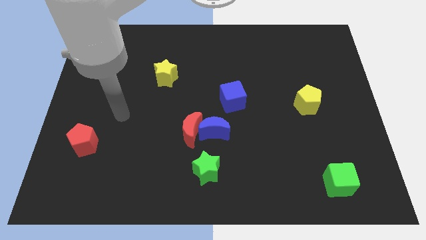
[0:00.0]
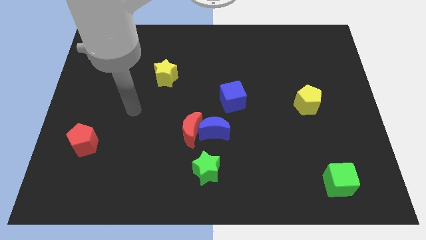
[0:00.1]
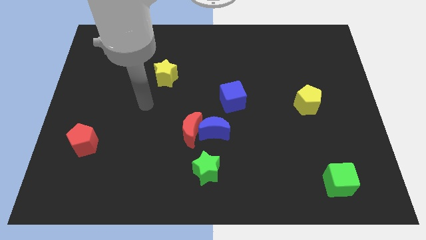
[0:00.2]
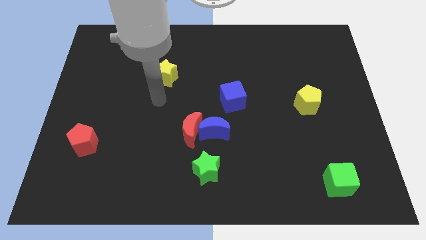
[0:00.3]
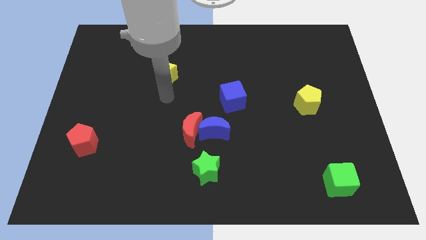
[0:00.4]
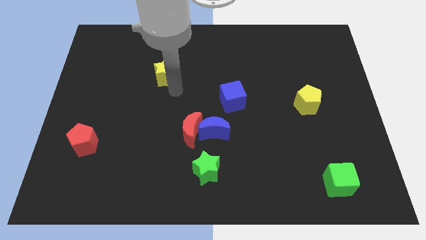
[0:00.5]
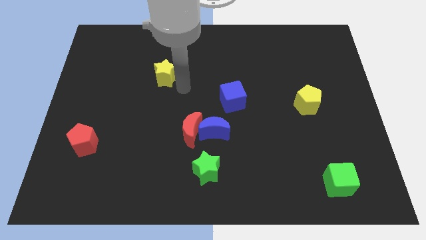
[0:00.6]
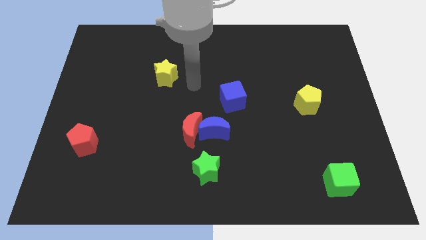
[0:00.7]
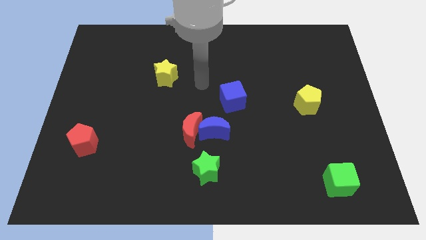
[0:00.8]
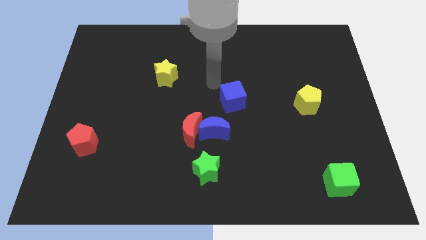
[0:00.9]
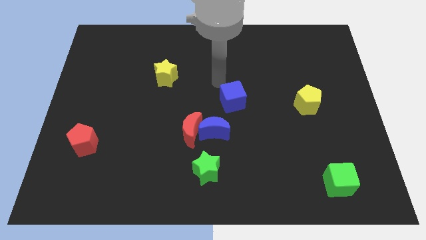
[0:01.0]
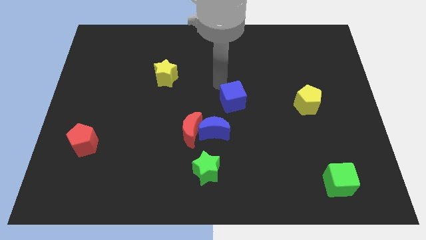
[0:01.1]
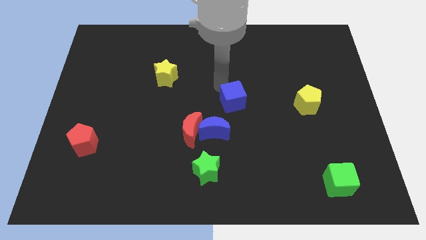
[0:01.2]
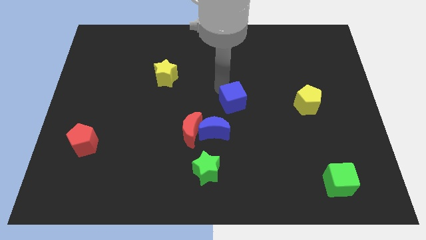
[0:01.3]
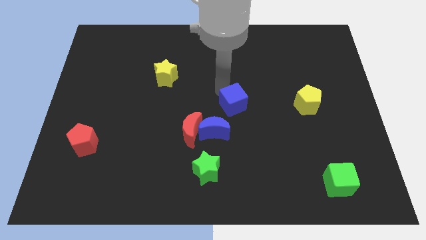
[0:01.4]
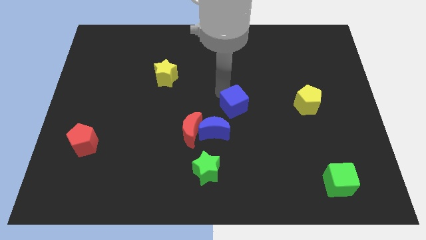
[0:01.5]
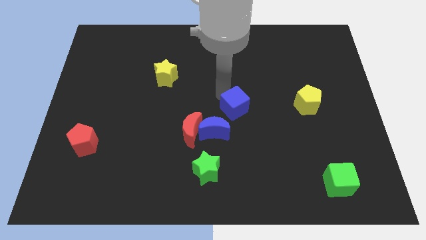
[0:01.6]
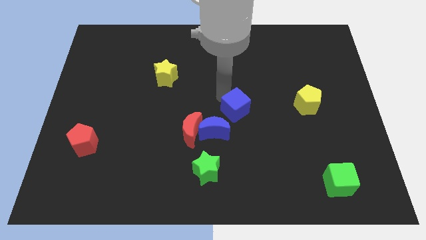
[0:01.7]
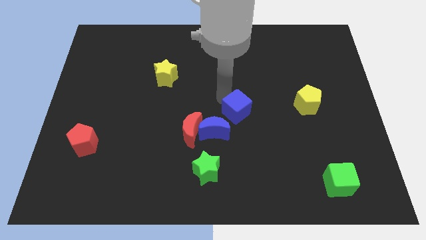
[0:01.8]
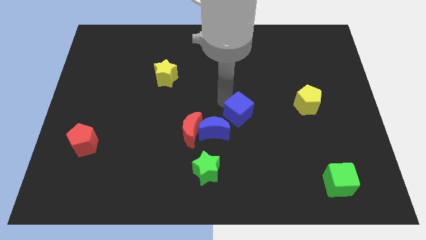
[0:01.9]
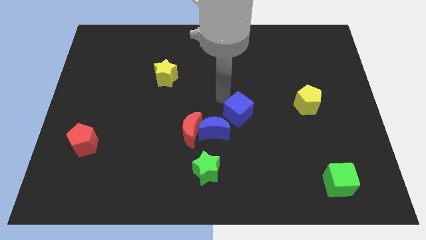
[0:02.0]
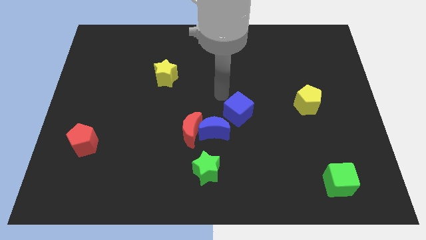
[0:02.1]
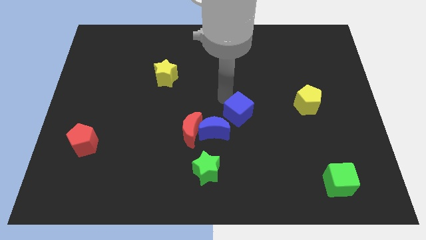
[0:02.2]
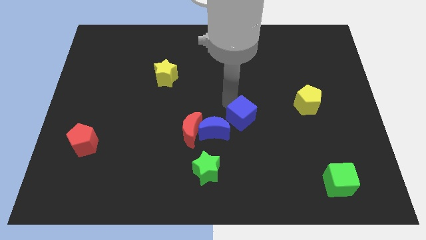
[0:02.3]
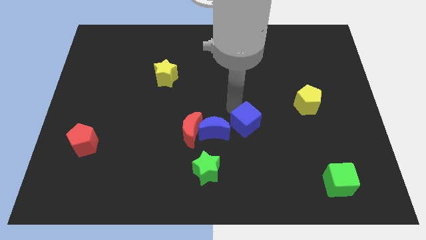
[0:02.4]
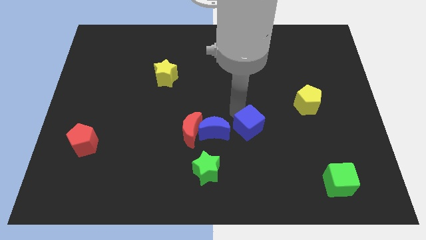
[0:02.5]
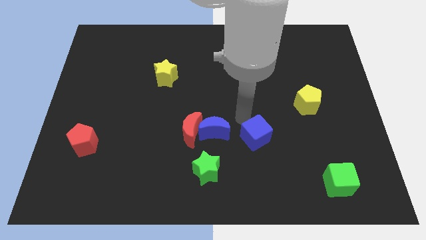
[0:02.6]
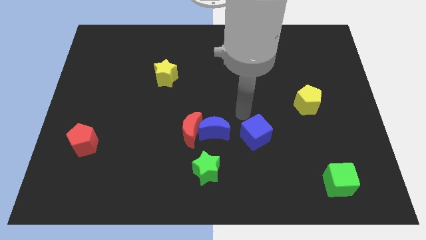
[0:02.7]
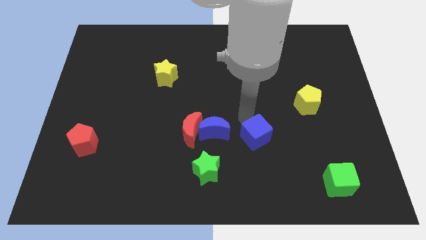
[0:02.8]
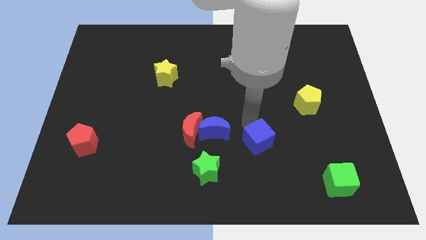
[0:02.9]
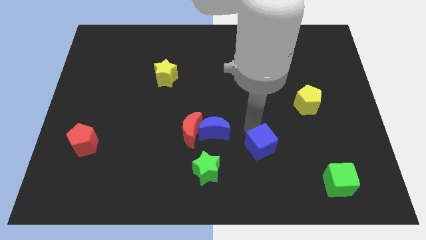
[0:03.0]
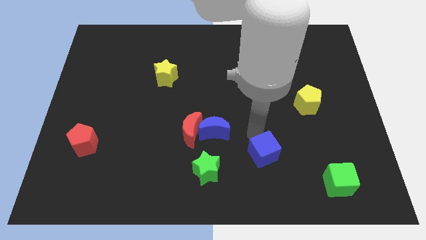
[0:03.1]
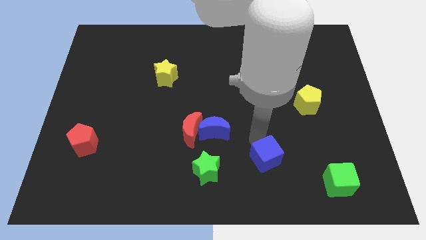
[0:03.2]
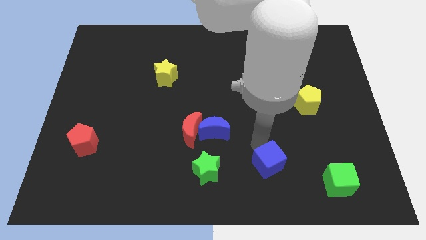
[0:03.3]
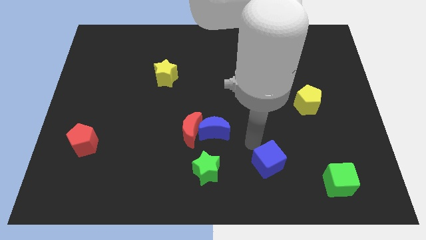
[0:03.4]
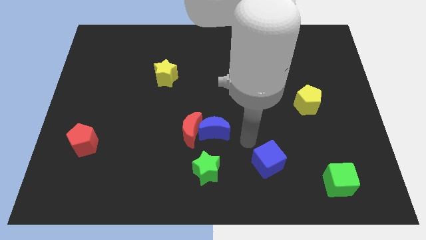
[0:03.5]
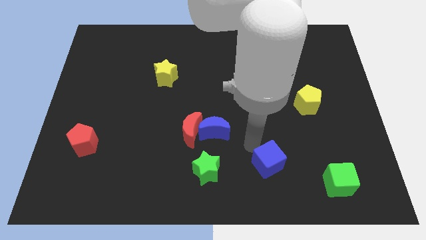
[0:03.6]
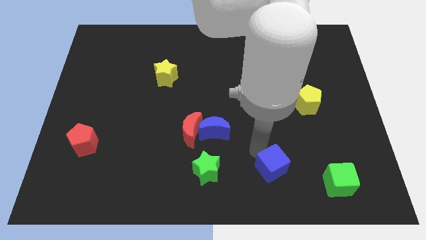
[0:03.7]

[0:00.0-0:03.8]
move the blue cube to the left side of the green cube

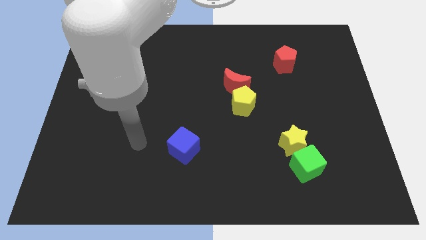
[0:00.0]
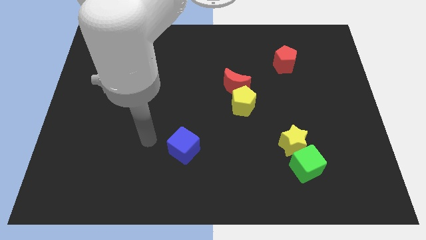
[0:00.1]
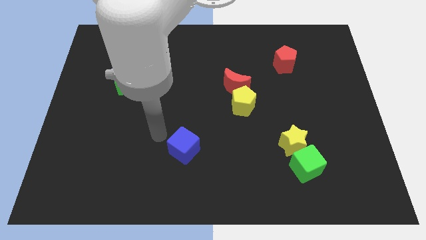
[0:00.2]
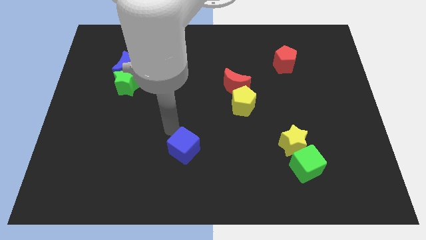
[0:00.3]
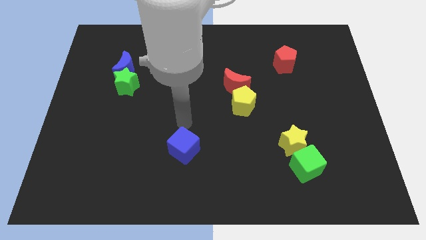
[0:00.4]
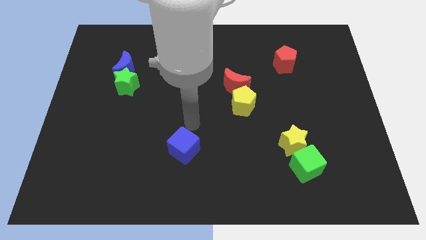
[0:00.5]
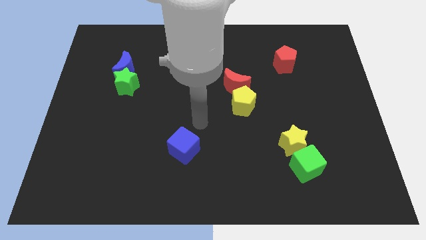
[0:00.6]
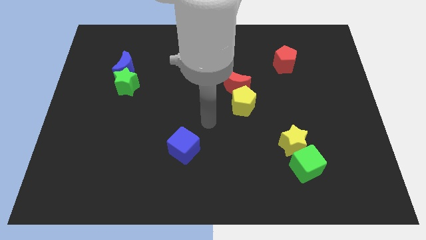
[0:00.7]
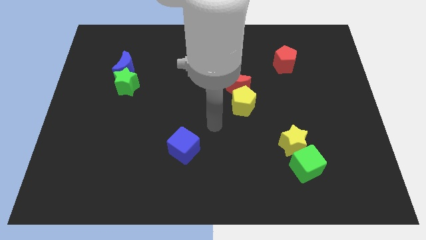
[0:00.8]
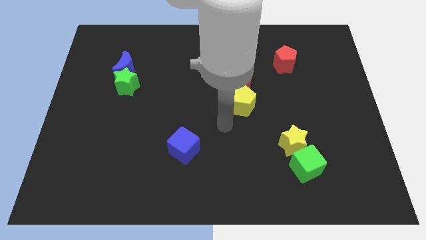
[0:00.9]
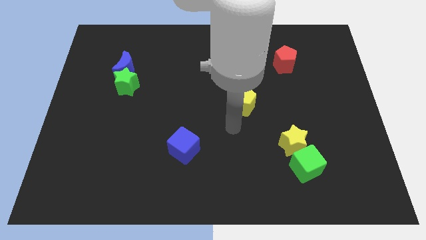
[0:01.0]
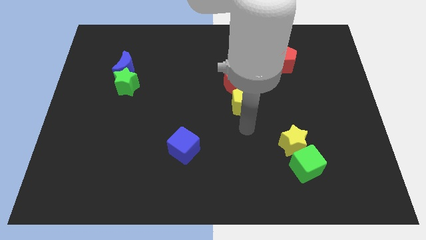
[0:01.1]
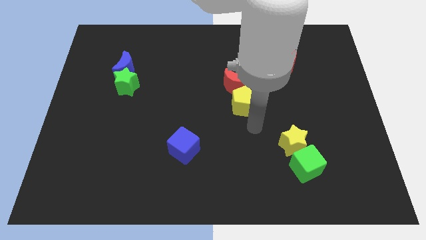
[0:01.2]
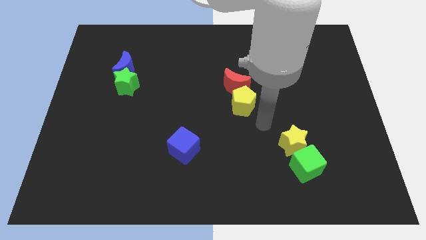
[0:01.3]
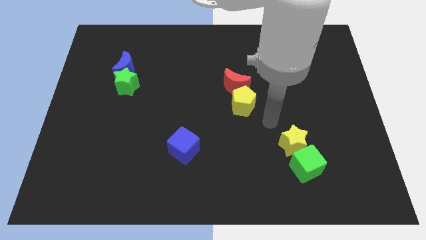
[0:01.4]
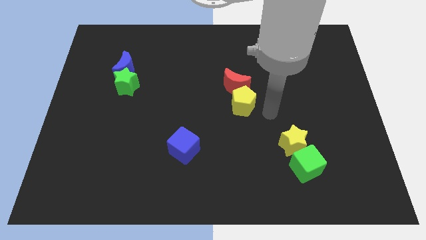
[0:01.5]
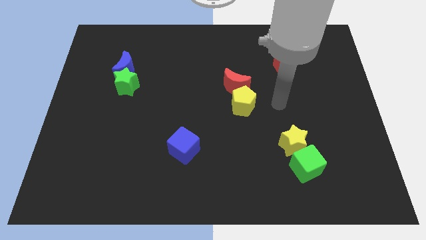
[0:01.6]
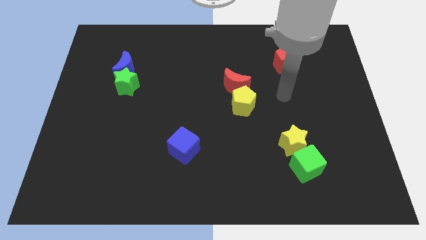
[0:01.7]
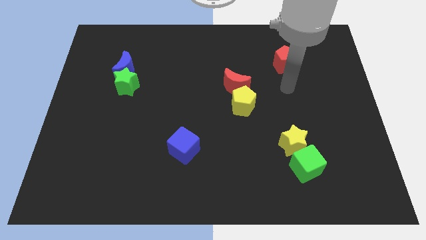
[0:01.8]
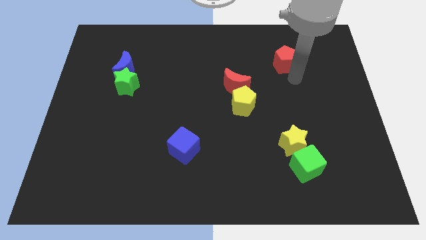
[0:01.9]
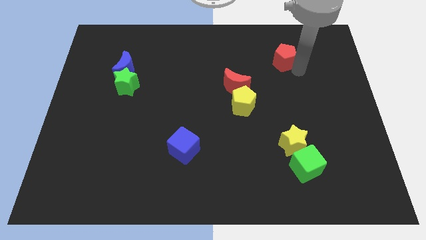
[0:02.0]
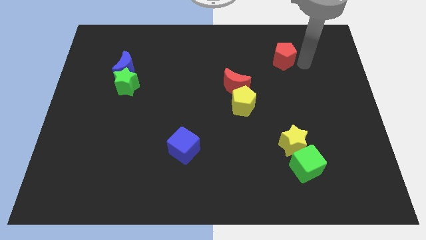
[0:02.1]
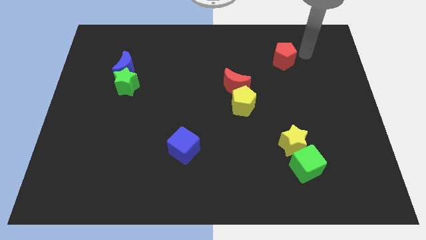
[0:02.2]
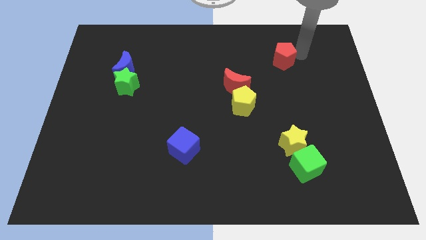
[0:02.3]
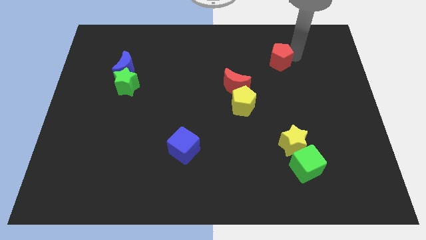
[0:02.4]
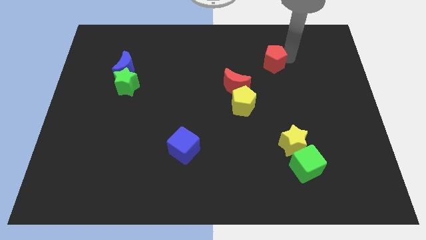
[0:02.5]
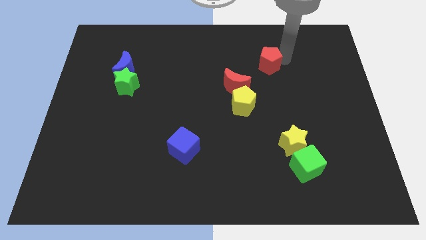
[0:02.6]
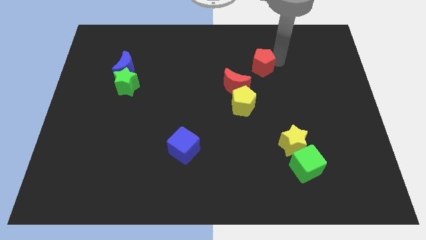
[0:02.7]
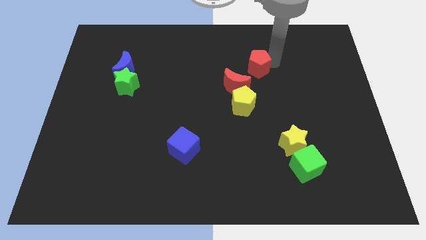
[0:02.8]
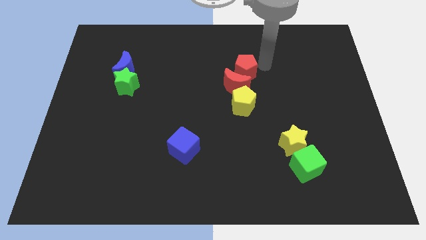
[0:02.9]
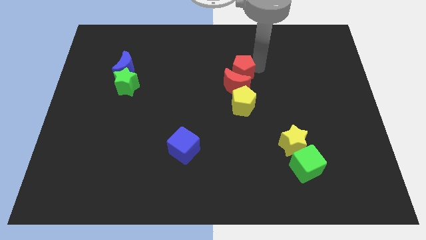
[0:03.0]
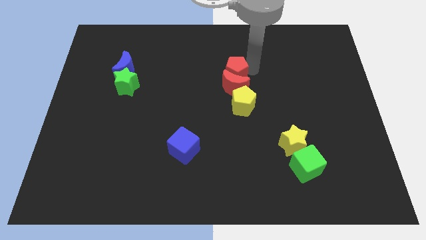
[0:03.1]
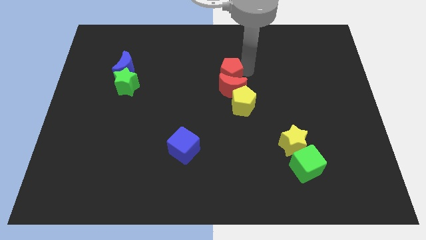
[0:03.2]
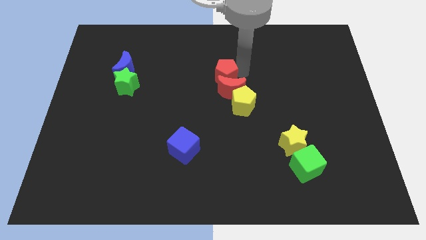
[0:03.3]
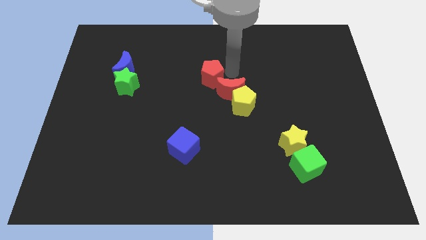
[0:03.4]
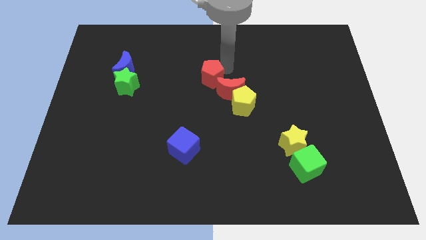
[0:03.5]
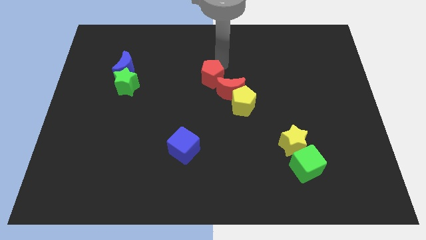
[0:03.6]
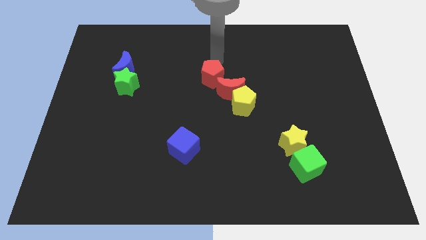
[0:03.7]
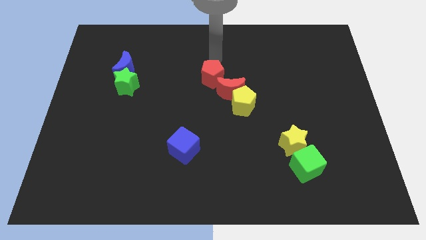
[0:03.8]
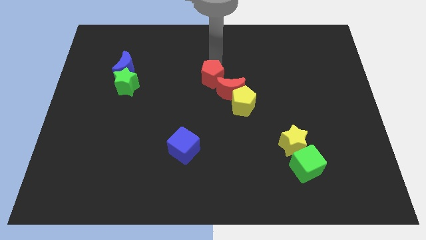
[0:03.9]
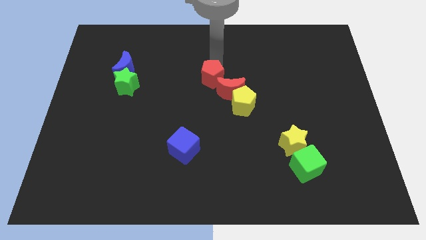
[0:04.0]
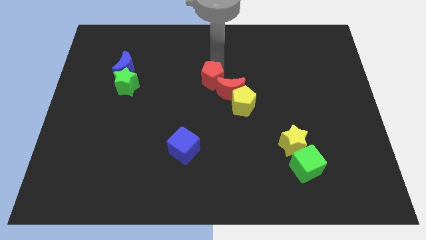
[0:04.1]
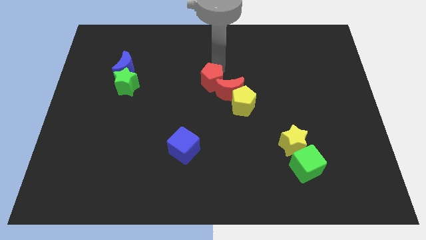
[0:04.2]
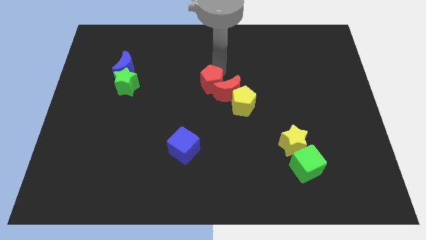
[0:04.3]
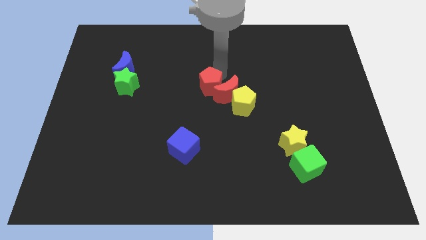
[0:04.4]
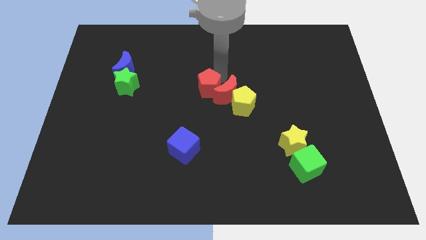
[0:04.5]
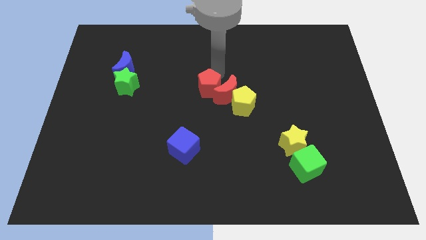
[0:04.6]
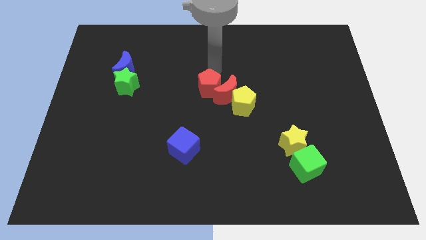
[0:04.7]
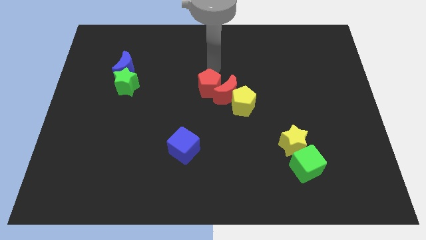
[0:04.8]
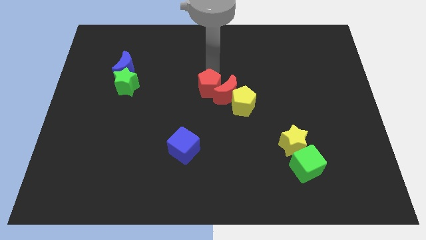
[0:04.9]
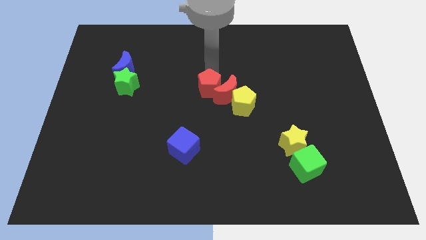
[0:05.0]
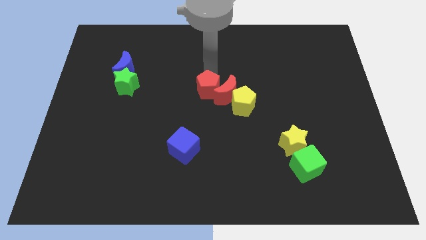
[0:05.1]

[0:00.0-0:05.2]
move the red pentagon to the bottom left of the red moon
